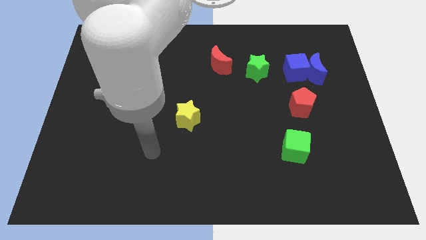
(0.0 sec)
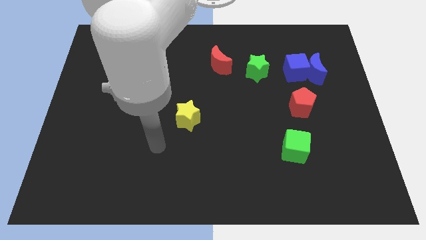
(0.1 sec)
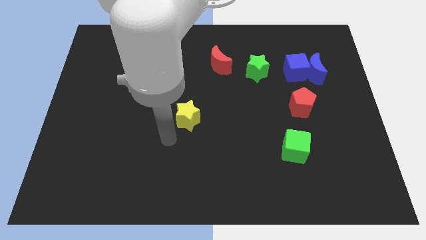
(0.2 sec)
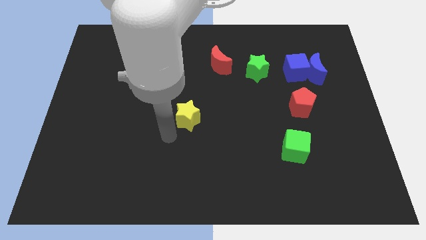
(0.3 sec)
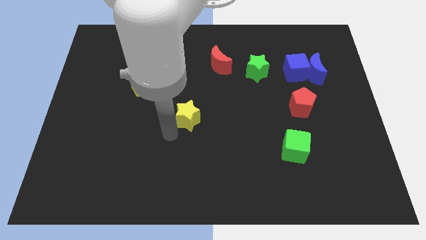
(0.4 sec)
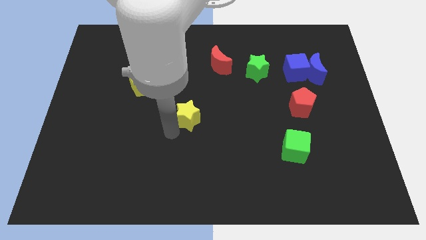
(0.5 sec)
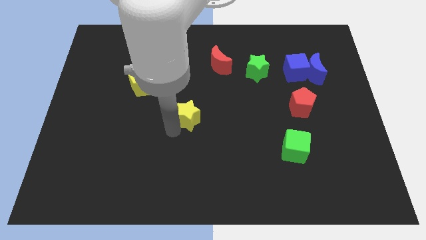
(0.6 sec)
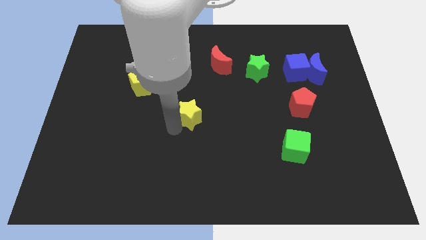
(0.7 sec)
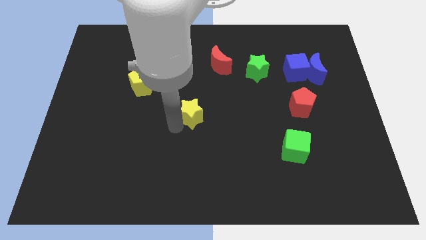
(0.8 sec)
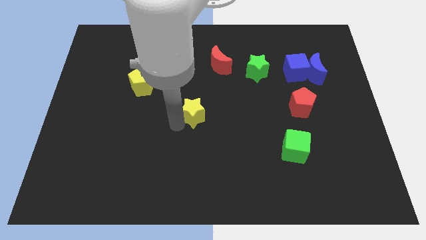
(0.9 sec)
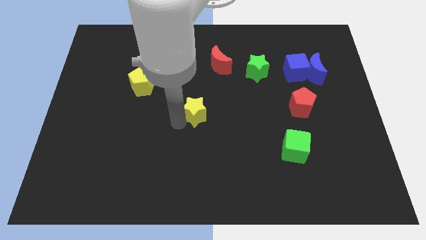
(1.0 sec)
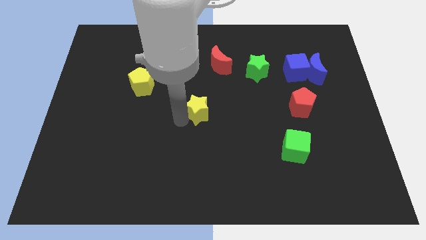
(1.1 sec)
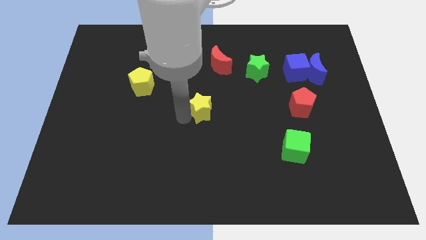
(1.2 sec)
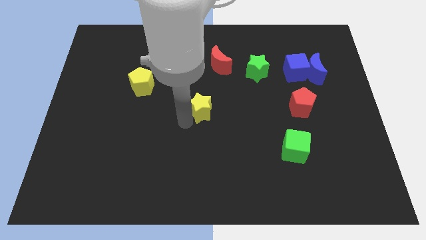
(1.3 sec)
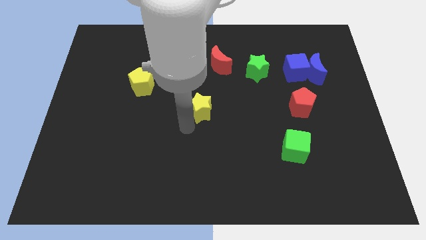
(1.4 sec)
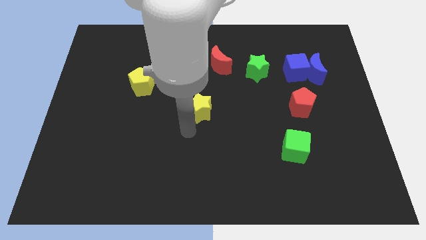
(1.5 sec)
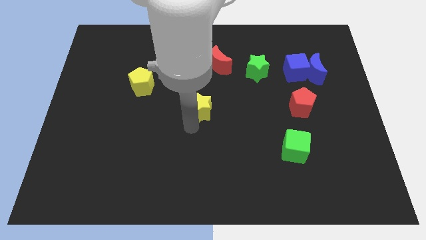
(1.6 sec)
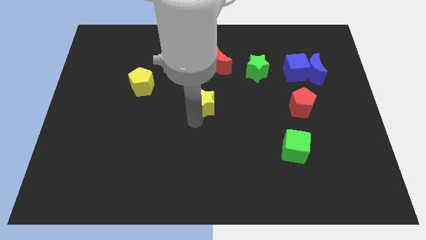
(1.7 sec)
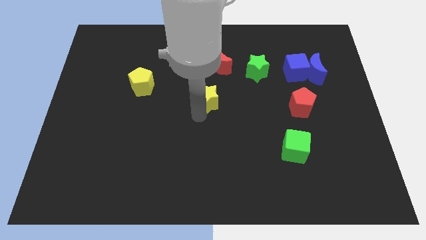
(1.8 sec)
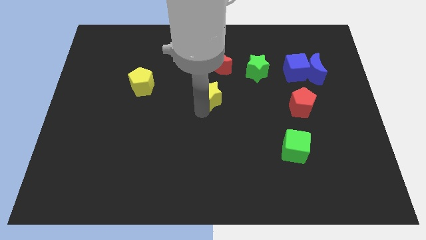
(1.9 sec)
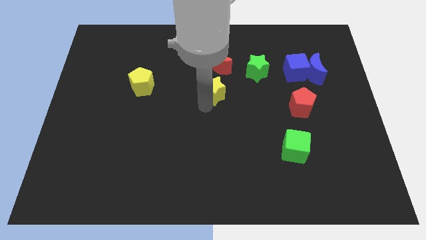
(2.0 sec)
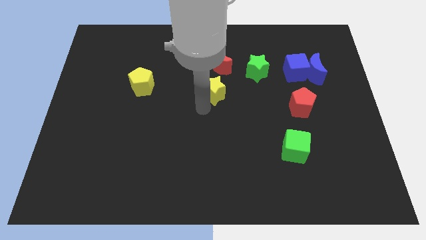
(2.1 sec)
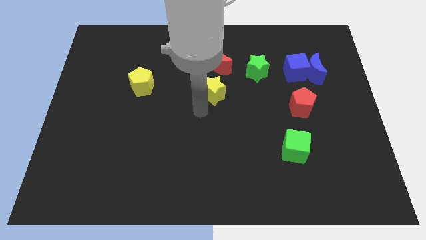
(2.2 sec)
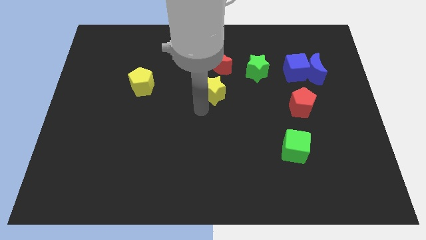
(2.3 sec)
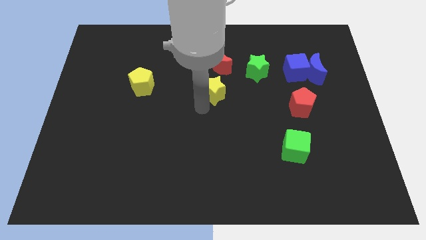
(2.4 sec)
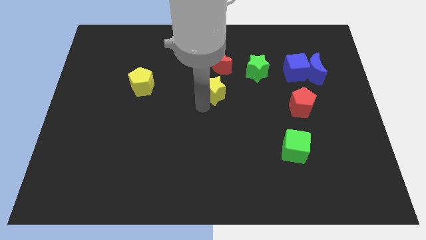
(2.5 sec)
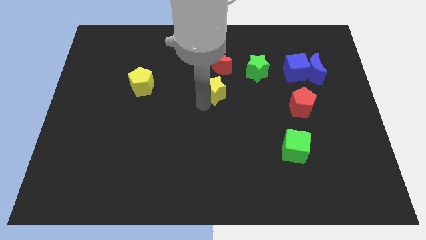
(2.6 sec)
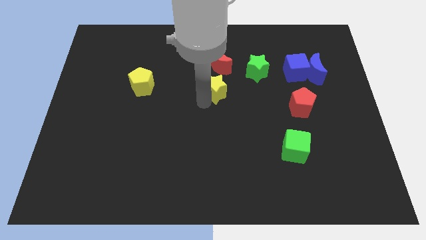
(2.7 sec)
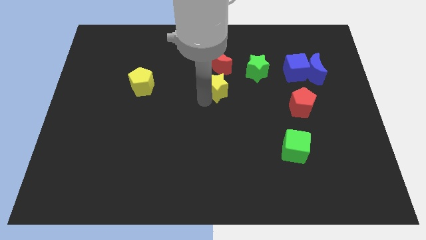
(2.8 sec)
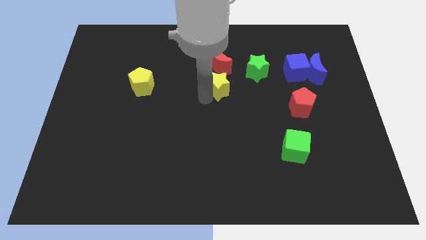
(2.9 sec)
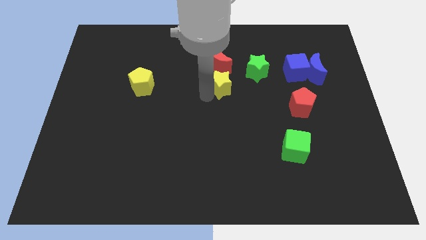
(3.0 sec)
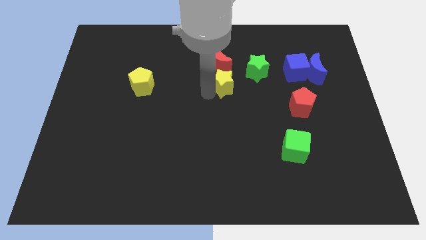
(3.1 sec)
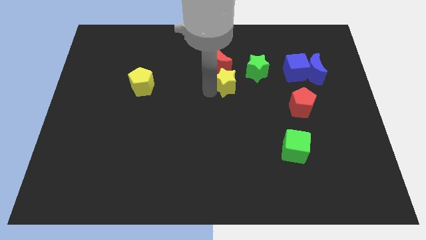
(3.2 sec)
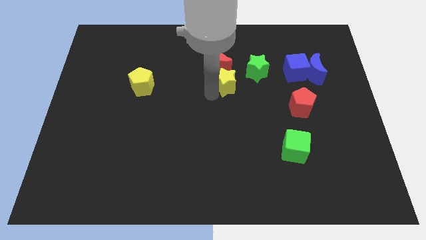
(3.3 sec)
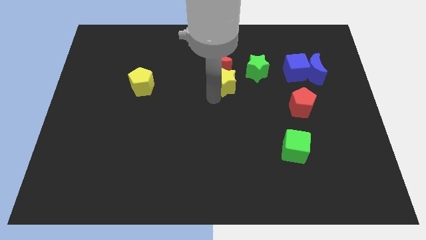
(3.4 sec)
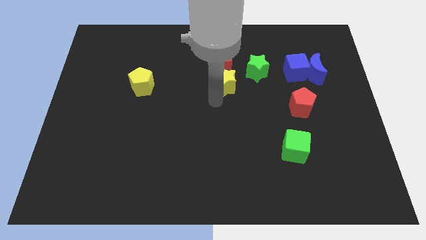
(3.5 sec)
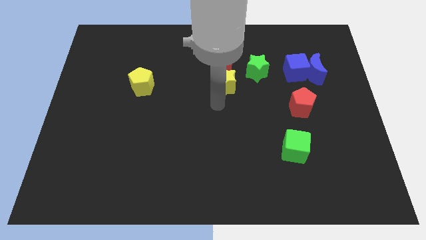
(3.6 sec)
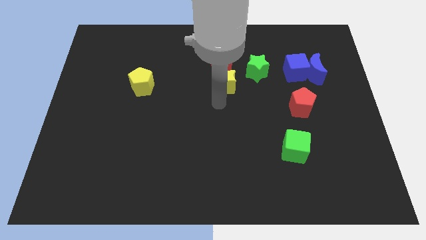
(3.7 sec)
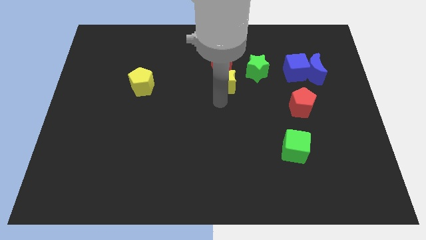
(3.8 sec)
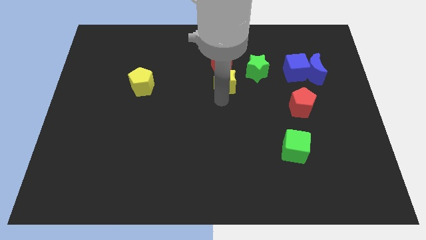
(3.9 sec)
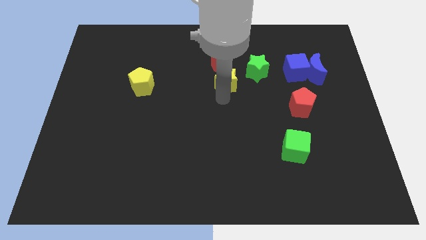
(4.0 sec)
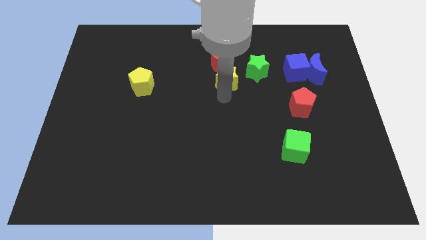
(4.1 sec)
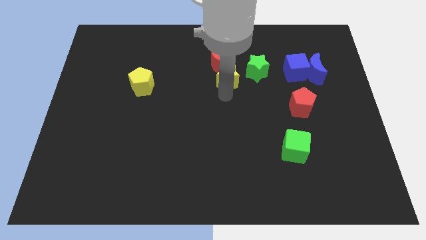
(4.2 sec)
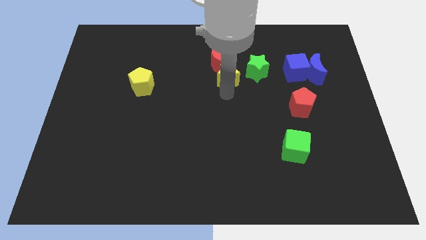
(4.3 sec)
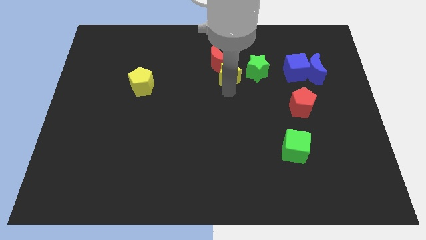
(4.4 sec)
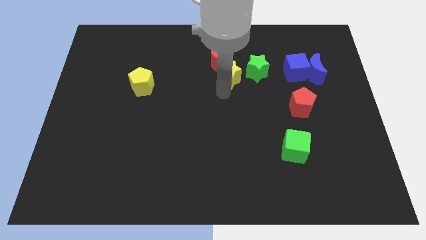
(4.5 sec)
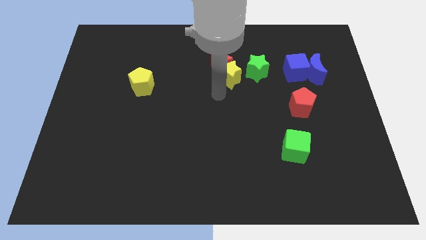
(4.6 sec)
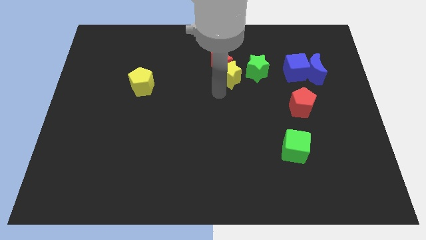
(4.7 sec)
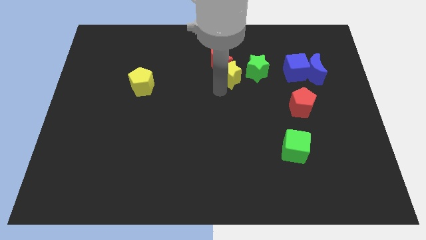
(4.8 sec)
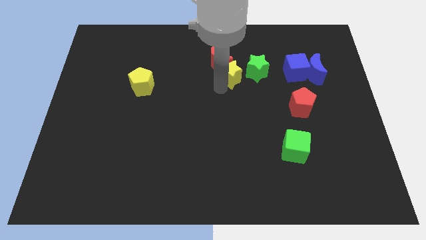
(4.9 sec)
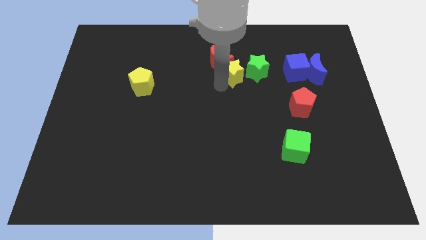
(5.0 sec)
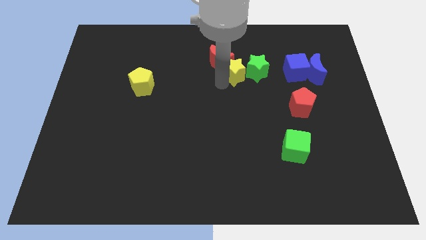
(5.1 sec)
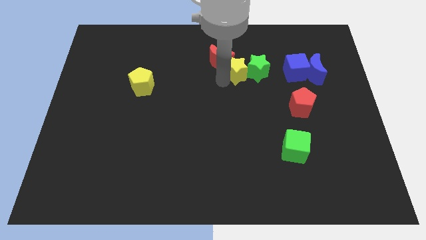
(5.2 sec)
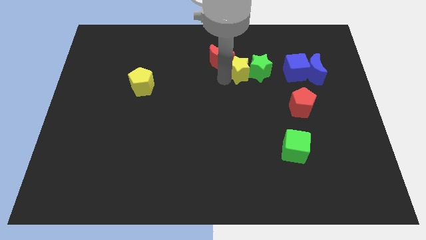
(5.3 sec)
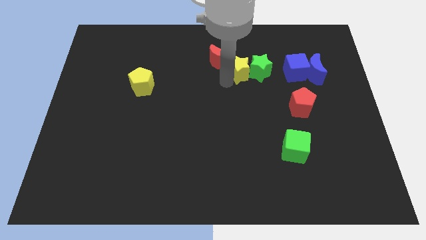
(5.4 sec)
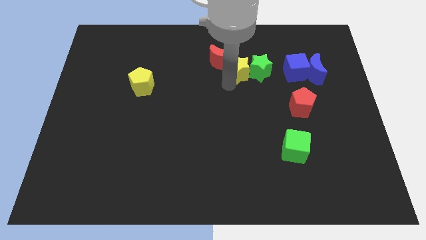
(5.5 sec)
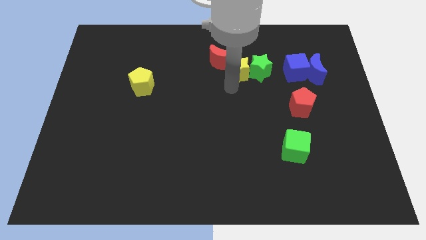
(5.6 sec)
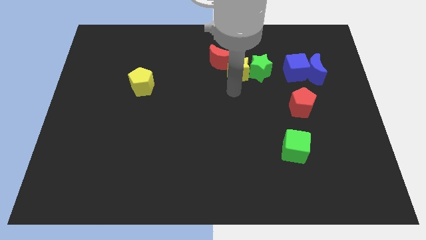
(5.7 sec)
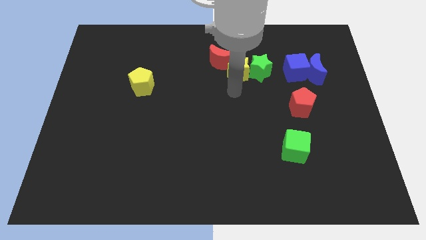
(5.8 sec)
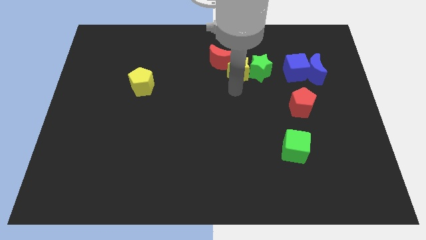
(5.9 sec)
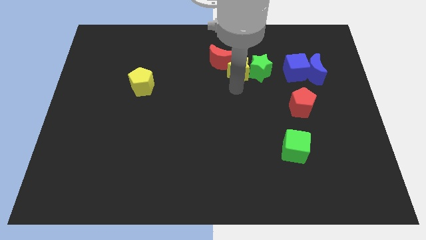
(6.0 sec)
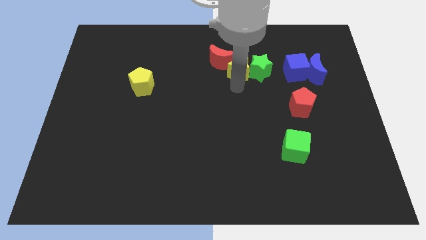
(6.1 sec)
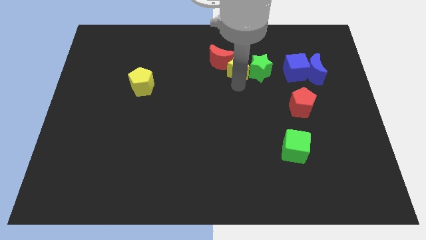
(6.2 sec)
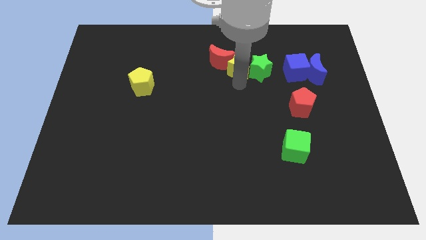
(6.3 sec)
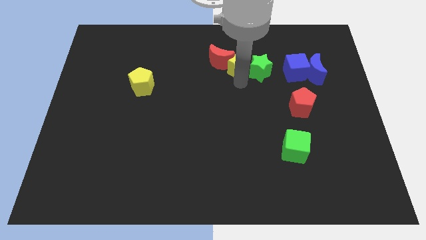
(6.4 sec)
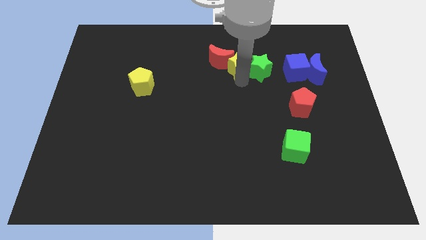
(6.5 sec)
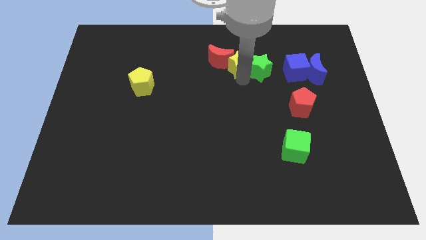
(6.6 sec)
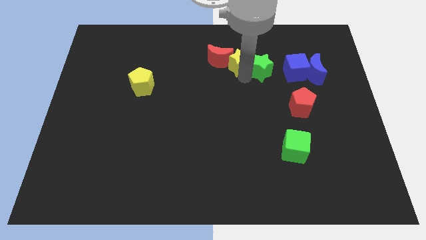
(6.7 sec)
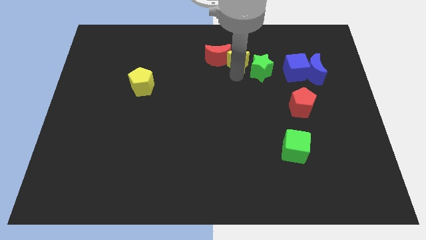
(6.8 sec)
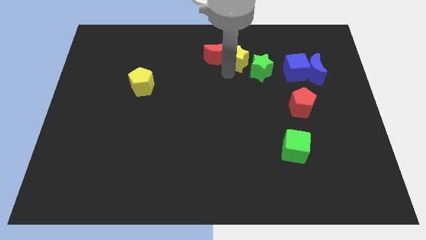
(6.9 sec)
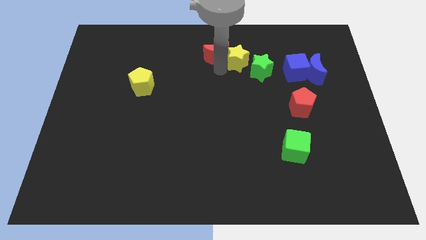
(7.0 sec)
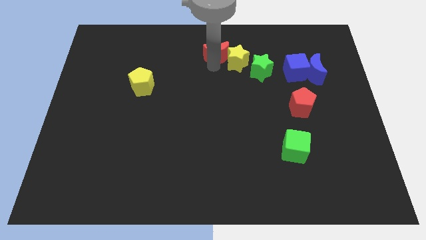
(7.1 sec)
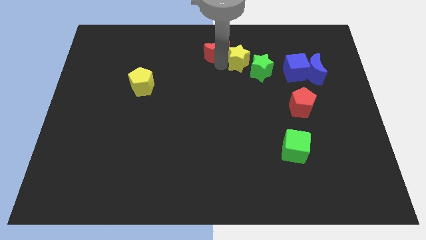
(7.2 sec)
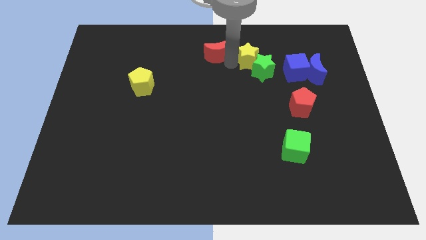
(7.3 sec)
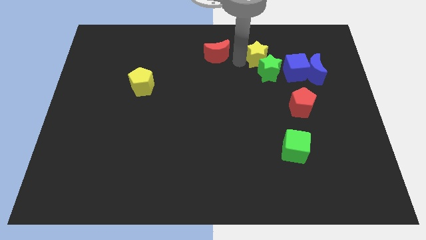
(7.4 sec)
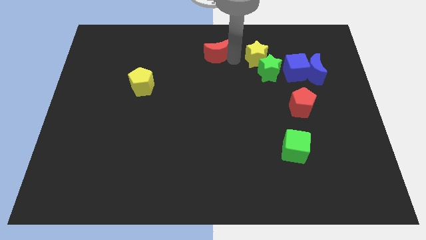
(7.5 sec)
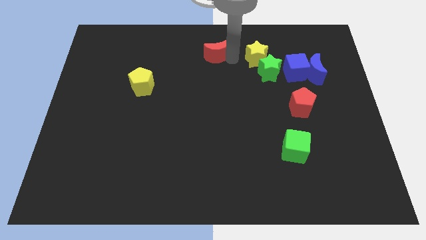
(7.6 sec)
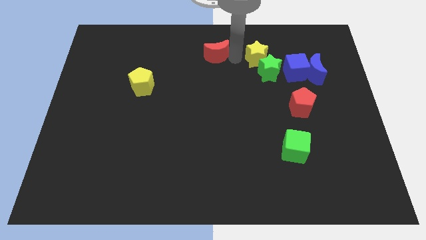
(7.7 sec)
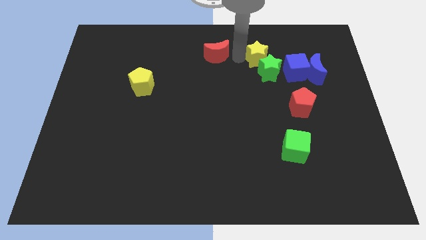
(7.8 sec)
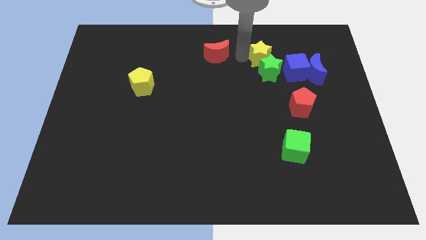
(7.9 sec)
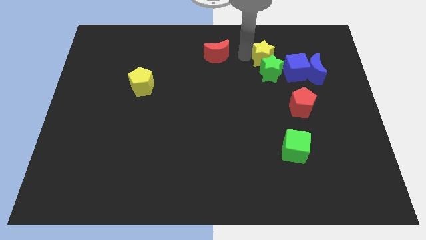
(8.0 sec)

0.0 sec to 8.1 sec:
push the yellow star diagonally up and to the right of the green star
